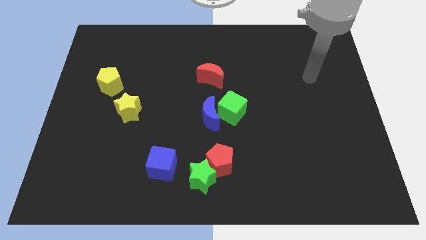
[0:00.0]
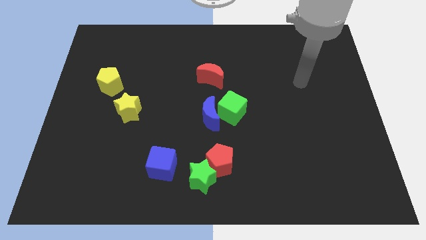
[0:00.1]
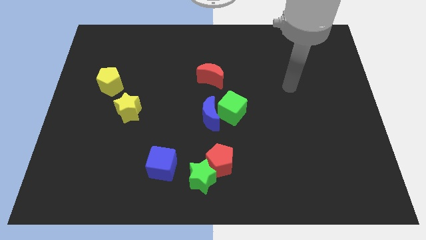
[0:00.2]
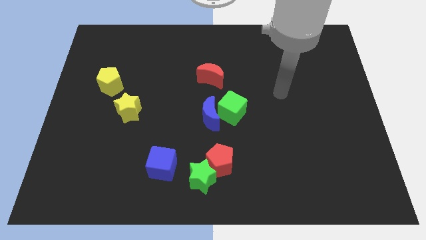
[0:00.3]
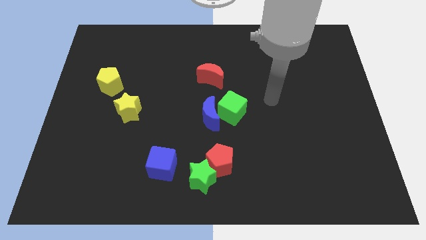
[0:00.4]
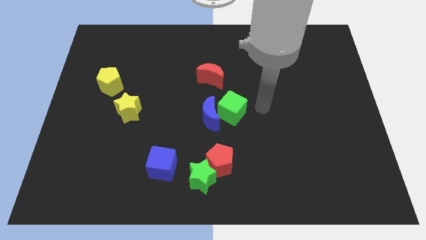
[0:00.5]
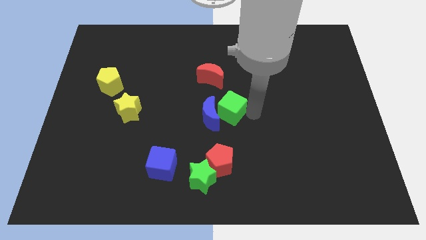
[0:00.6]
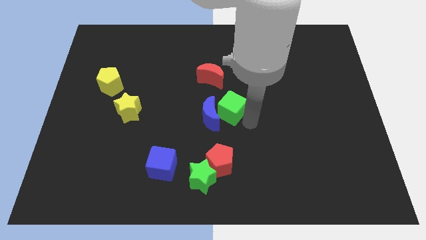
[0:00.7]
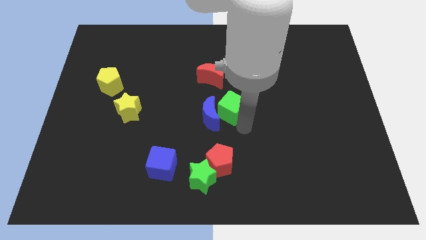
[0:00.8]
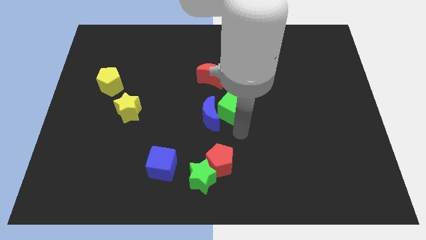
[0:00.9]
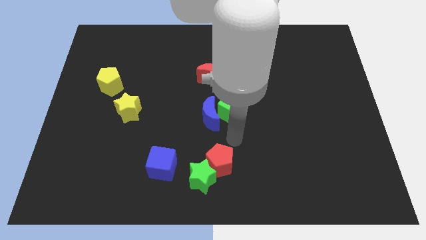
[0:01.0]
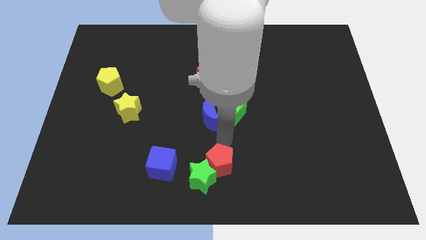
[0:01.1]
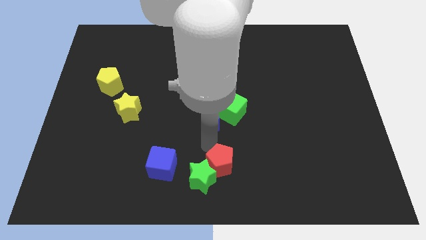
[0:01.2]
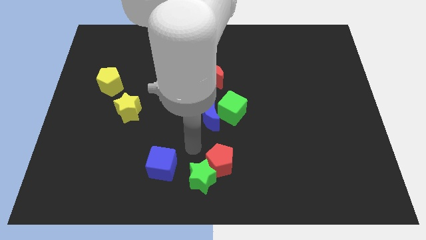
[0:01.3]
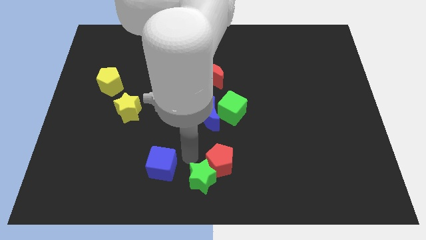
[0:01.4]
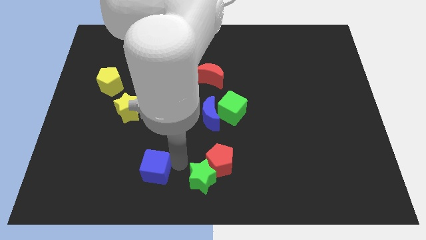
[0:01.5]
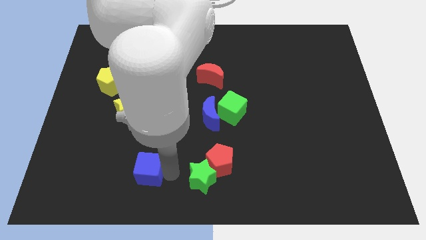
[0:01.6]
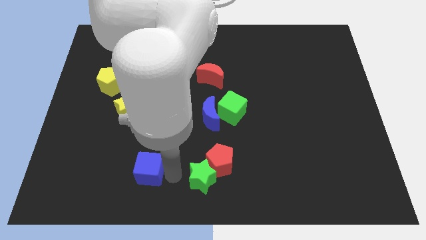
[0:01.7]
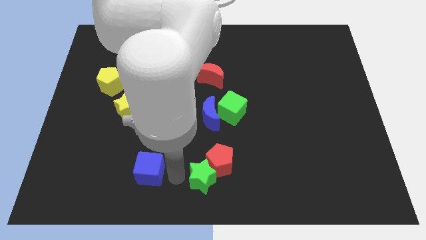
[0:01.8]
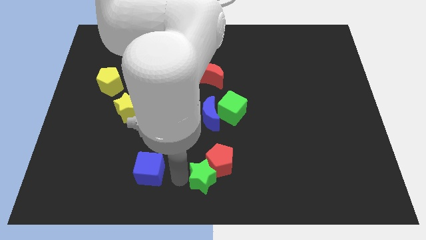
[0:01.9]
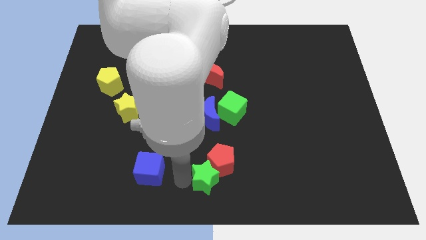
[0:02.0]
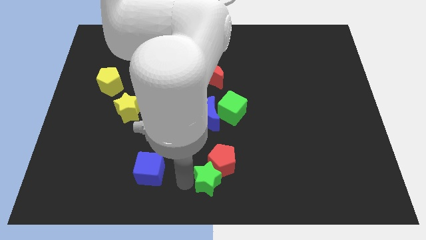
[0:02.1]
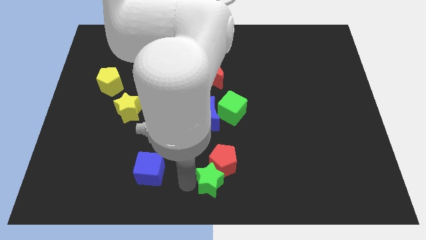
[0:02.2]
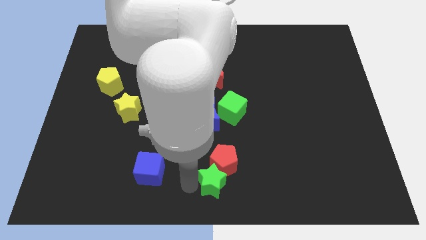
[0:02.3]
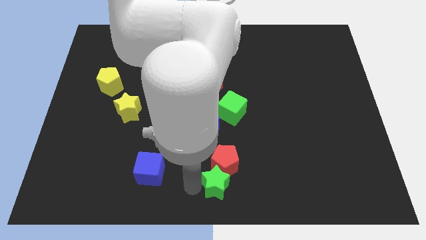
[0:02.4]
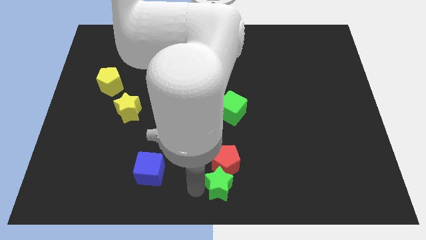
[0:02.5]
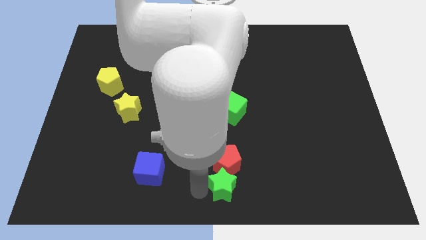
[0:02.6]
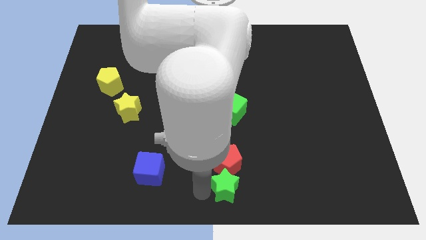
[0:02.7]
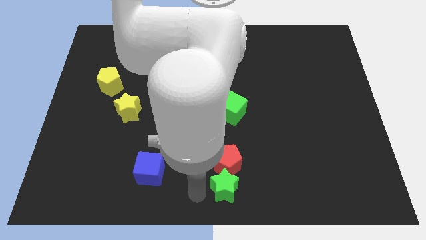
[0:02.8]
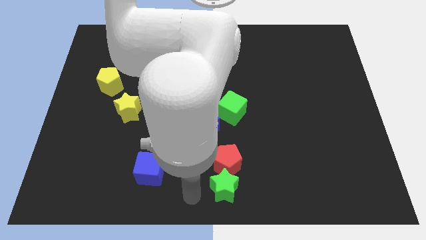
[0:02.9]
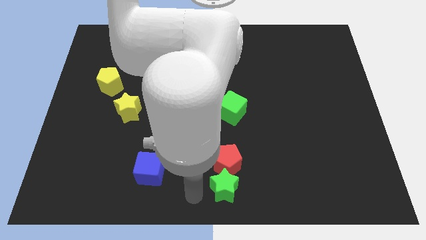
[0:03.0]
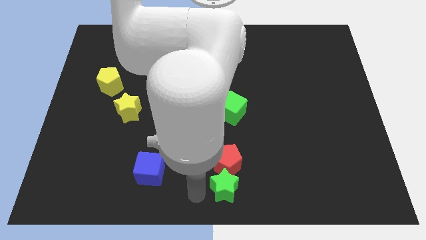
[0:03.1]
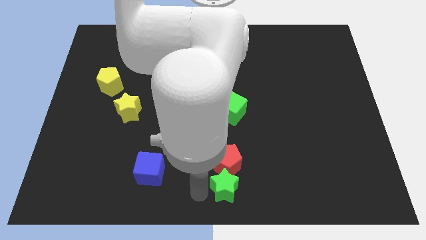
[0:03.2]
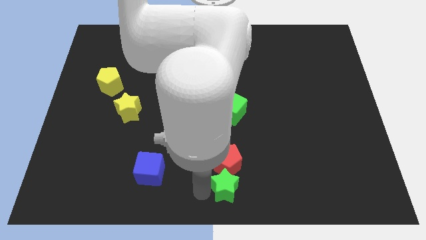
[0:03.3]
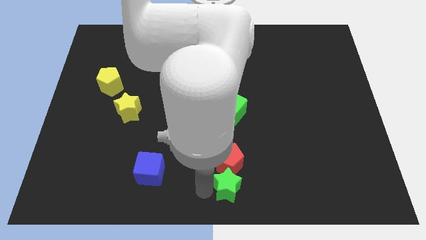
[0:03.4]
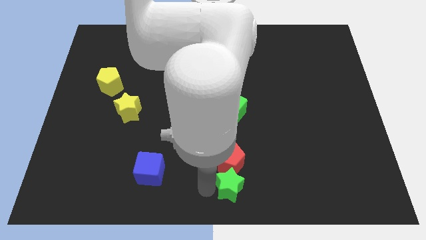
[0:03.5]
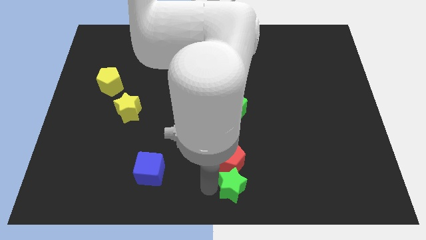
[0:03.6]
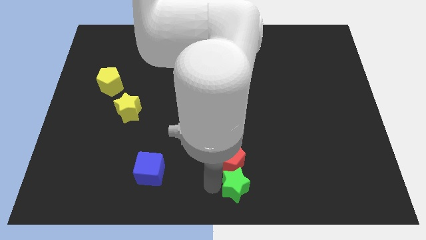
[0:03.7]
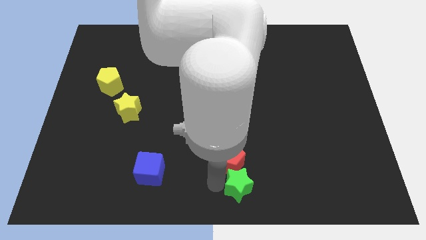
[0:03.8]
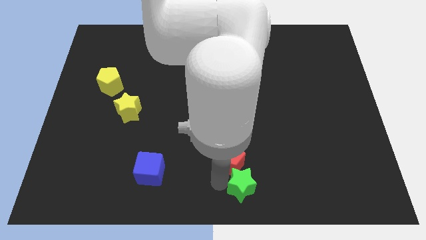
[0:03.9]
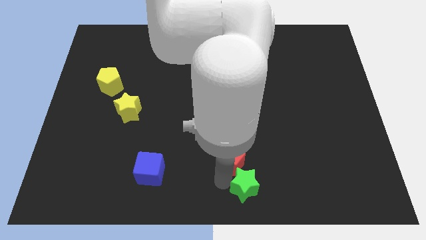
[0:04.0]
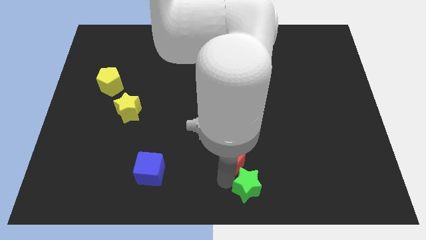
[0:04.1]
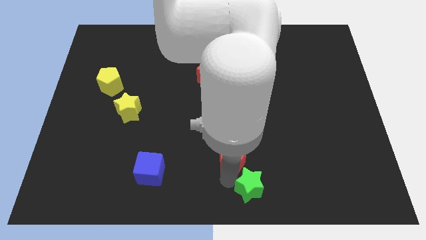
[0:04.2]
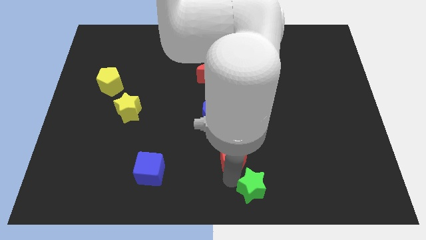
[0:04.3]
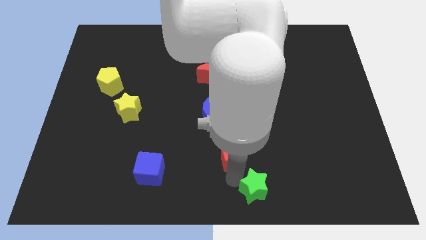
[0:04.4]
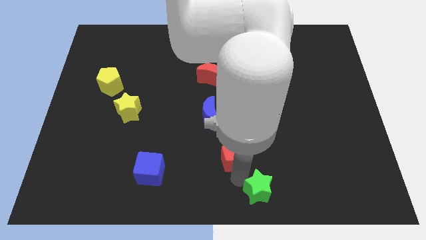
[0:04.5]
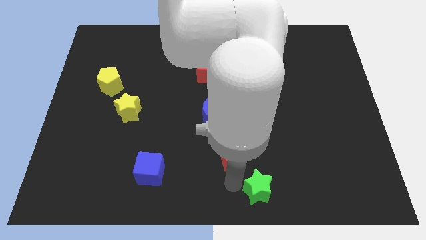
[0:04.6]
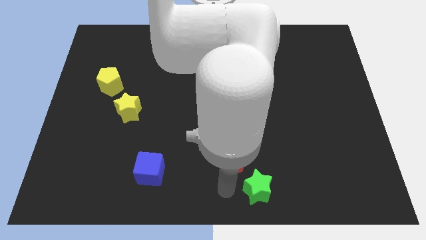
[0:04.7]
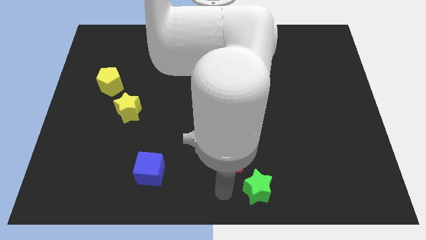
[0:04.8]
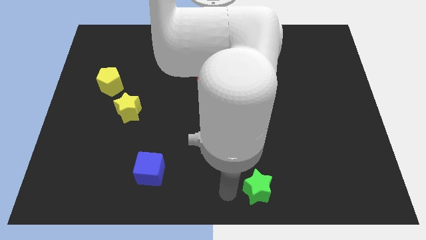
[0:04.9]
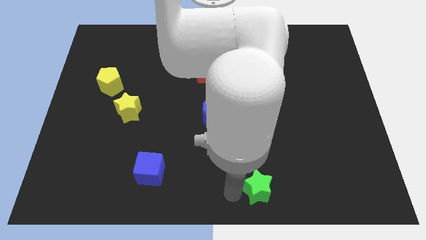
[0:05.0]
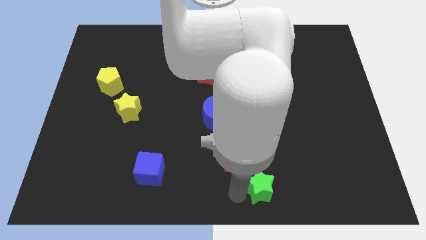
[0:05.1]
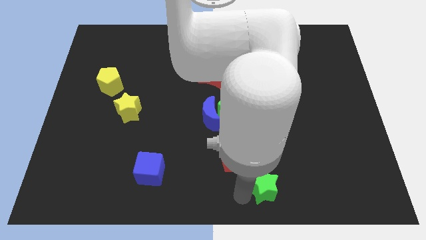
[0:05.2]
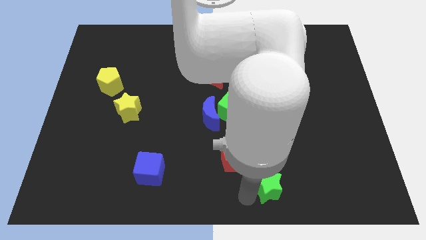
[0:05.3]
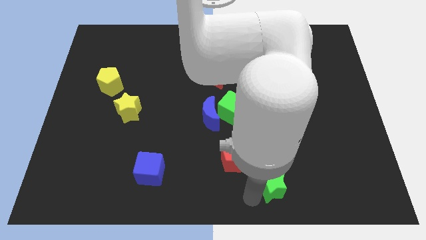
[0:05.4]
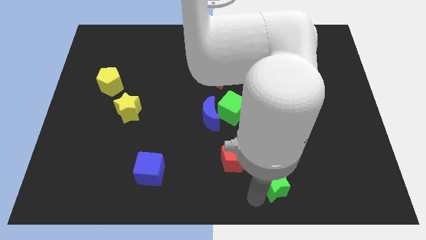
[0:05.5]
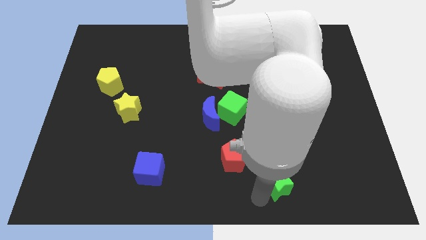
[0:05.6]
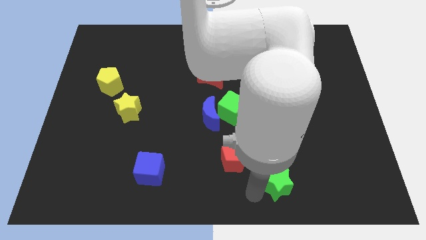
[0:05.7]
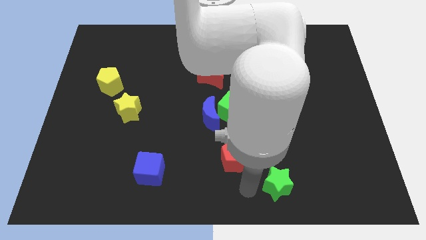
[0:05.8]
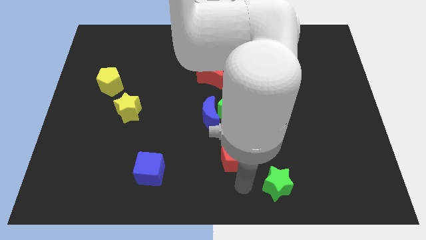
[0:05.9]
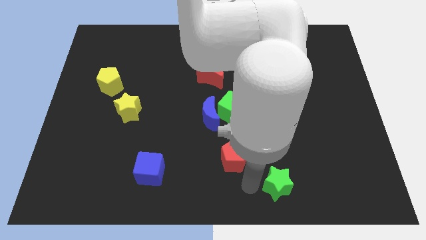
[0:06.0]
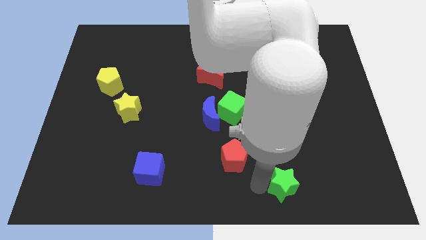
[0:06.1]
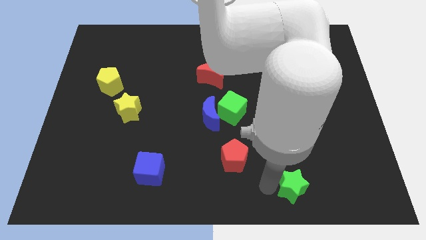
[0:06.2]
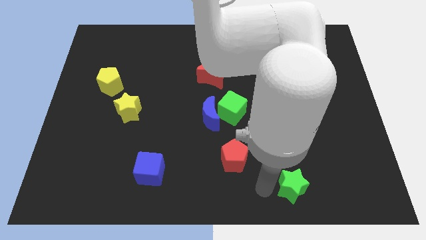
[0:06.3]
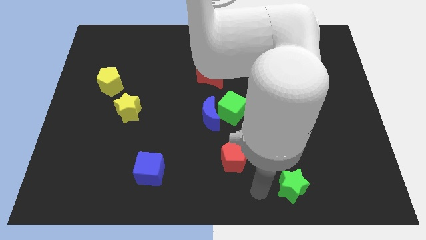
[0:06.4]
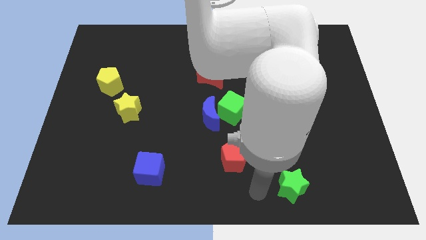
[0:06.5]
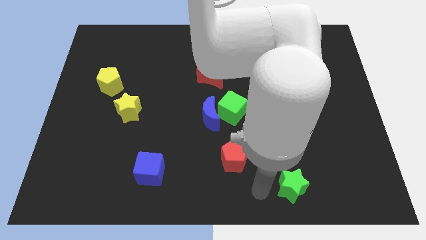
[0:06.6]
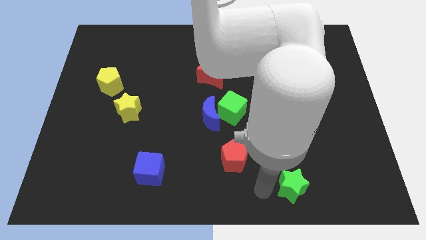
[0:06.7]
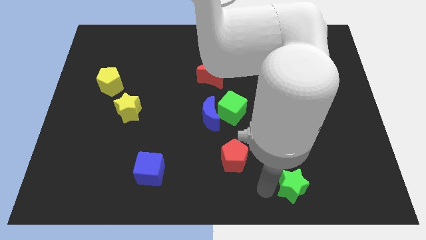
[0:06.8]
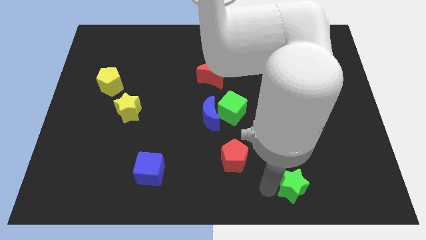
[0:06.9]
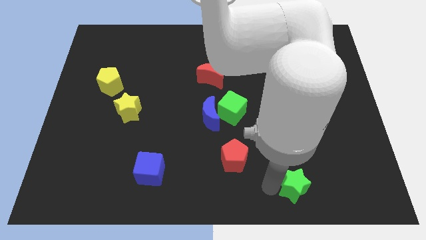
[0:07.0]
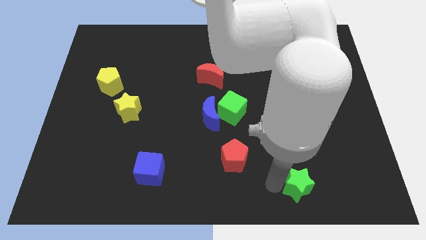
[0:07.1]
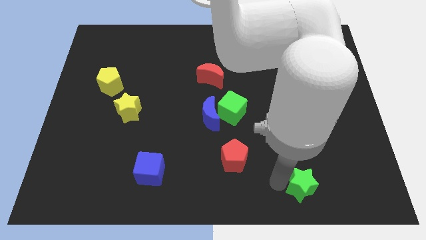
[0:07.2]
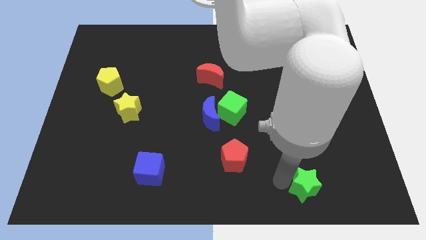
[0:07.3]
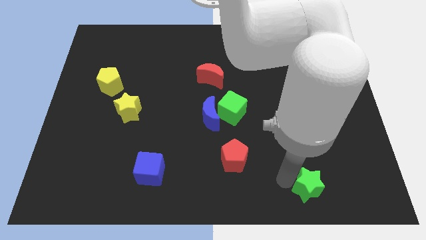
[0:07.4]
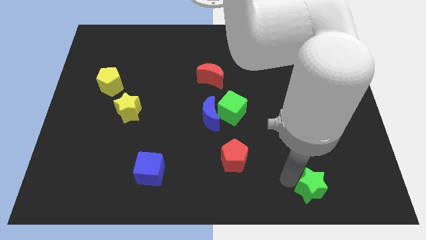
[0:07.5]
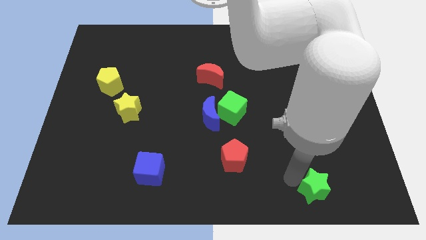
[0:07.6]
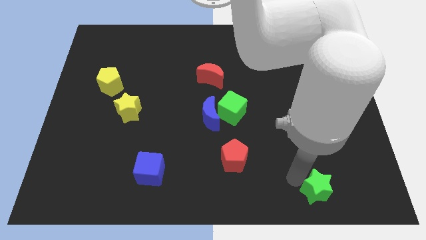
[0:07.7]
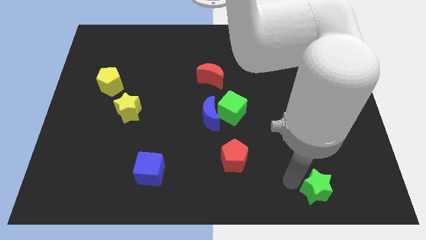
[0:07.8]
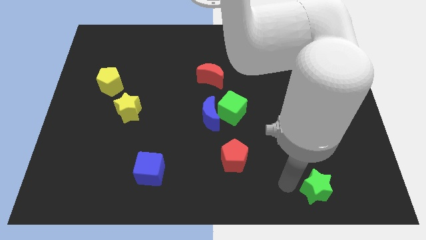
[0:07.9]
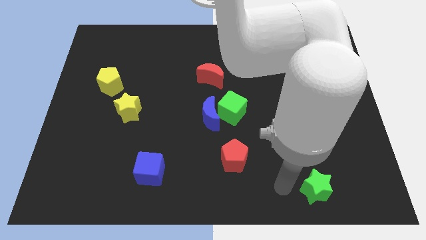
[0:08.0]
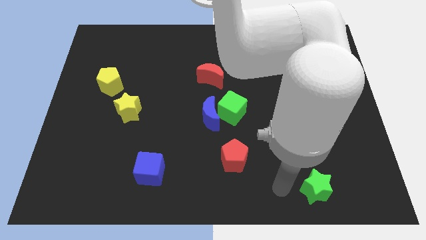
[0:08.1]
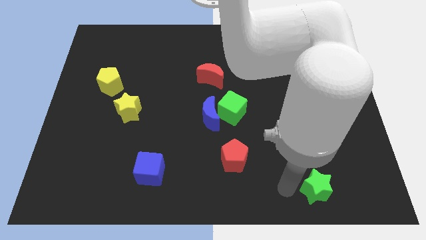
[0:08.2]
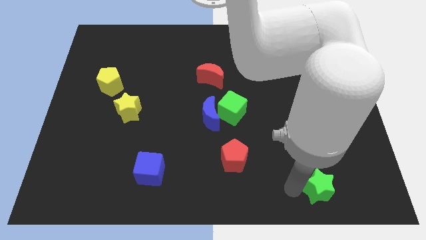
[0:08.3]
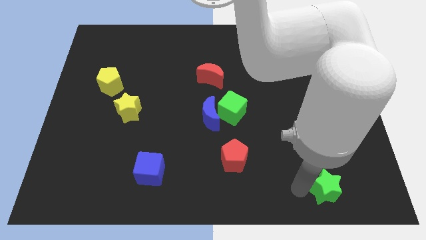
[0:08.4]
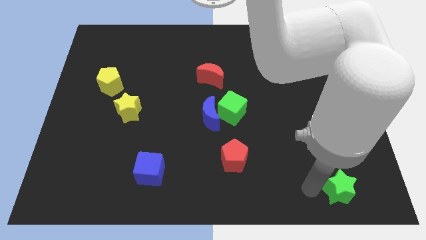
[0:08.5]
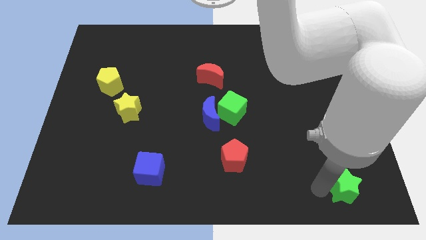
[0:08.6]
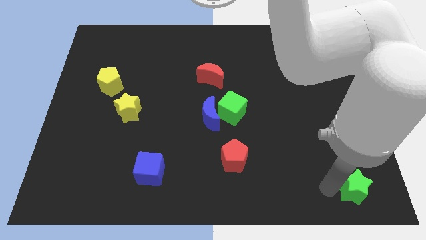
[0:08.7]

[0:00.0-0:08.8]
push the green star to the bottom right of the board
